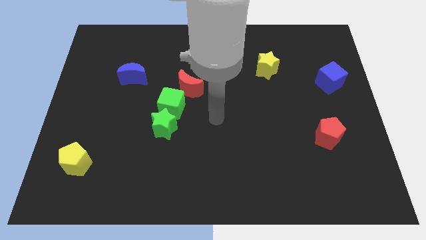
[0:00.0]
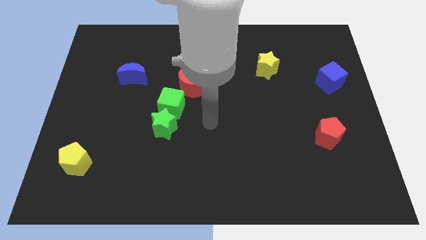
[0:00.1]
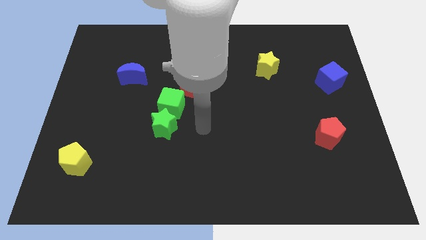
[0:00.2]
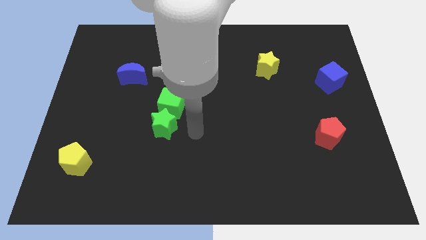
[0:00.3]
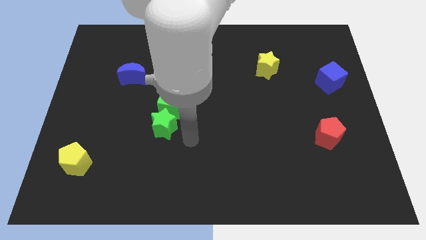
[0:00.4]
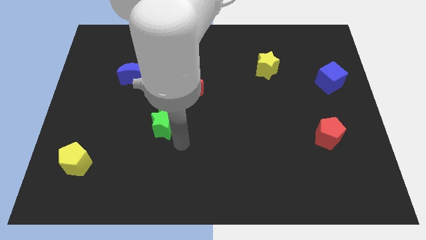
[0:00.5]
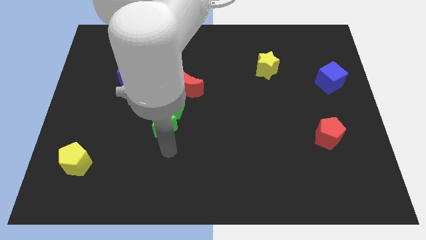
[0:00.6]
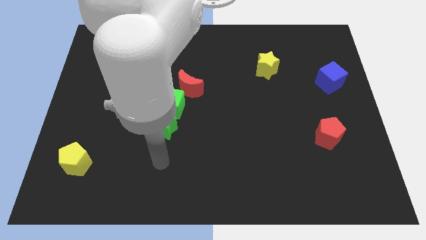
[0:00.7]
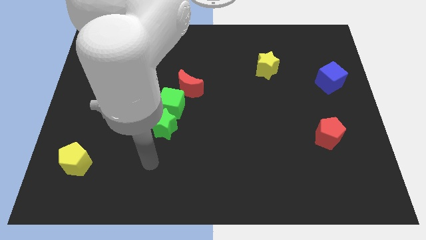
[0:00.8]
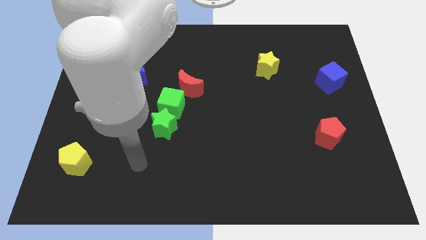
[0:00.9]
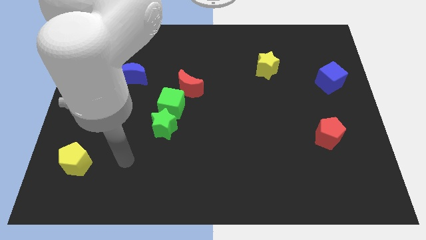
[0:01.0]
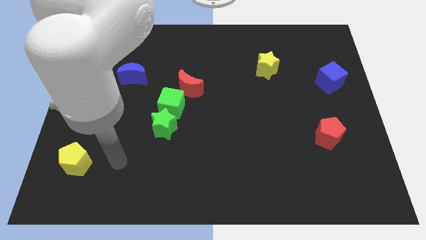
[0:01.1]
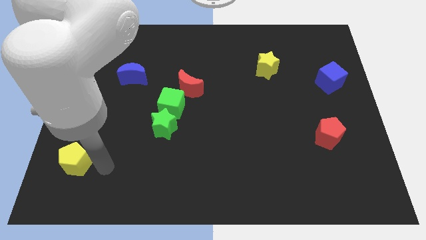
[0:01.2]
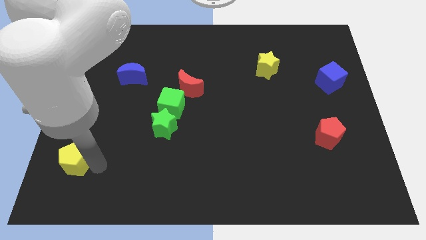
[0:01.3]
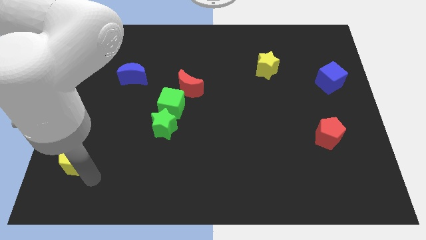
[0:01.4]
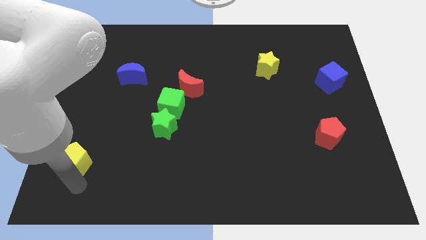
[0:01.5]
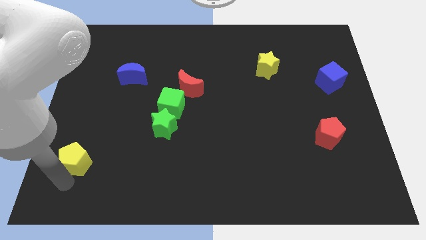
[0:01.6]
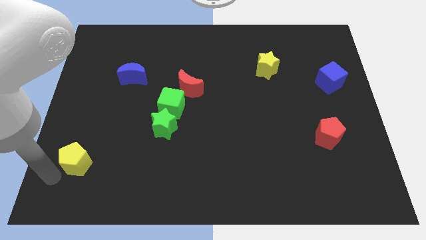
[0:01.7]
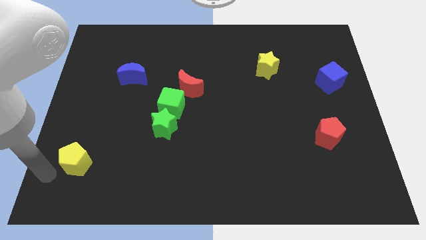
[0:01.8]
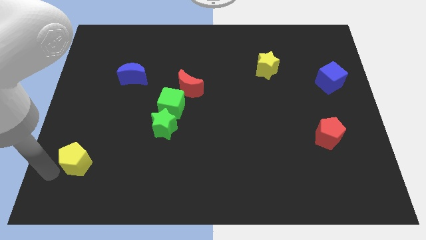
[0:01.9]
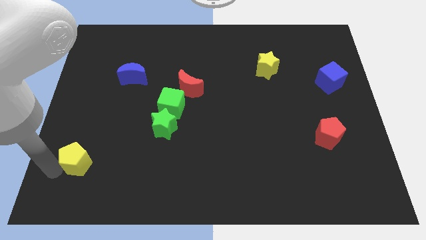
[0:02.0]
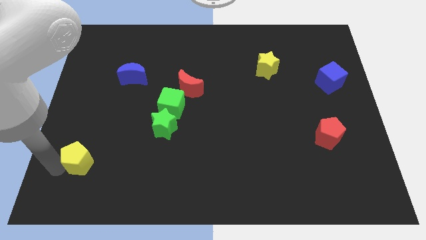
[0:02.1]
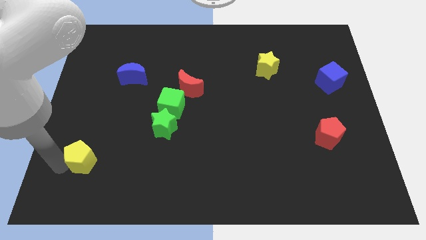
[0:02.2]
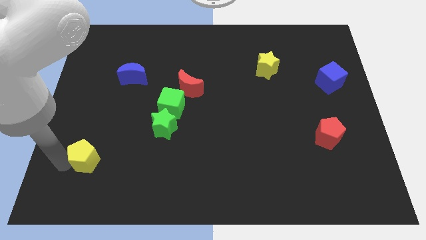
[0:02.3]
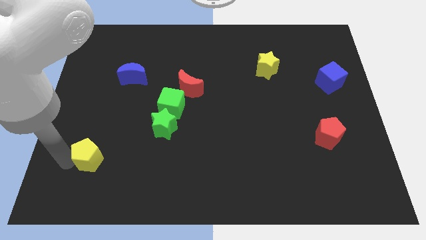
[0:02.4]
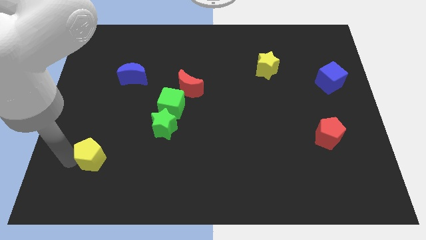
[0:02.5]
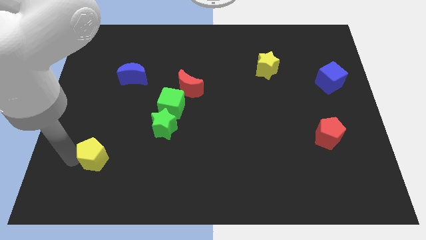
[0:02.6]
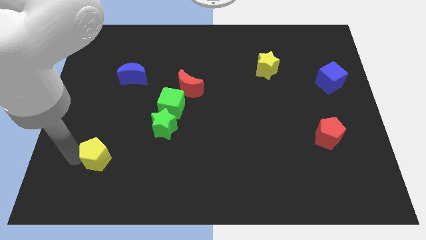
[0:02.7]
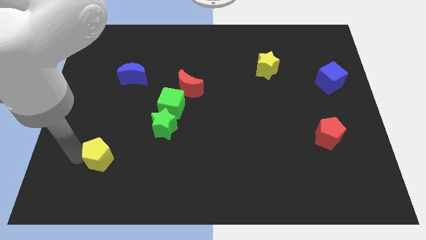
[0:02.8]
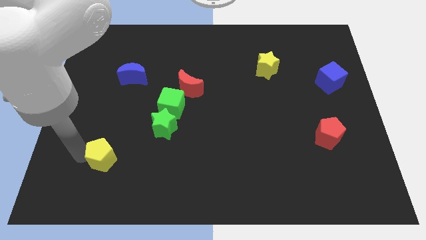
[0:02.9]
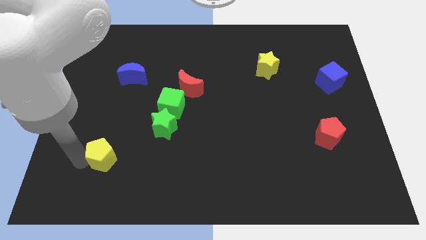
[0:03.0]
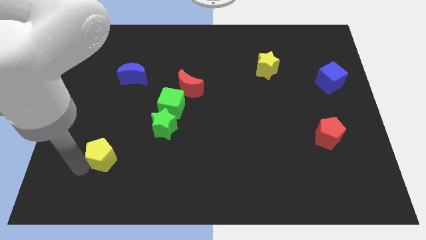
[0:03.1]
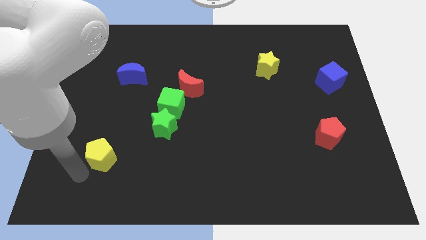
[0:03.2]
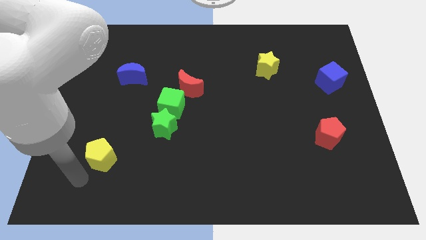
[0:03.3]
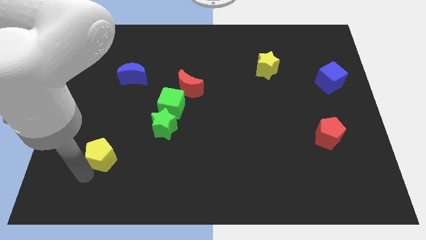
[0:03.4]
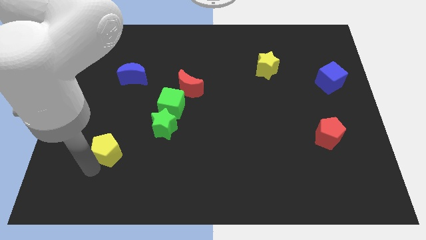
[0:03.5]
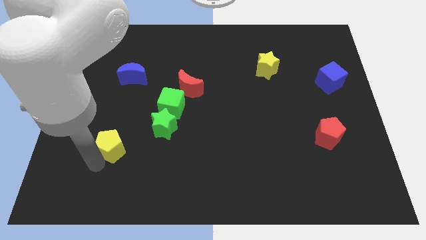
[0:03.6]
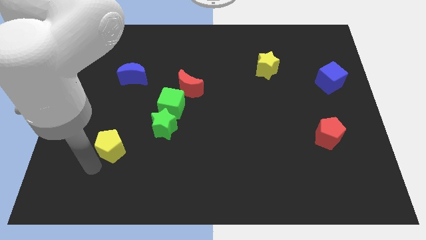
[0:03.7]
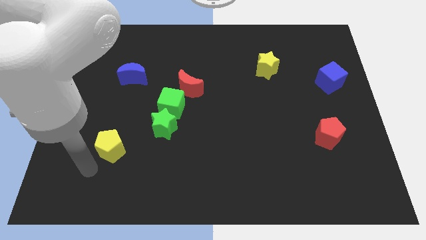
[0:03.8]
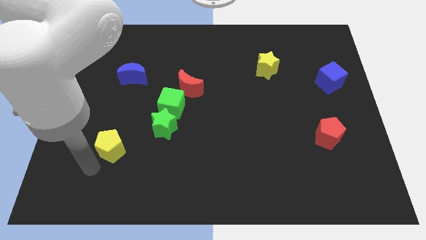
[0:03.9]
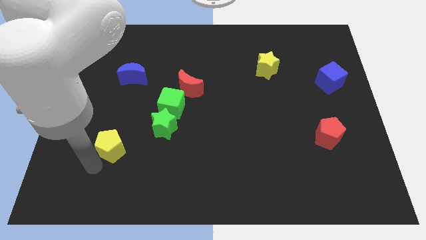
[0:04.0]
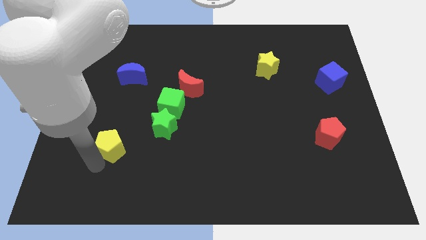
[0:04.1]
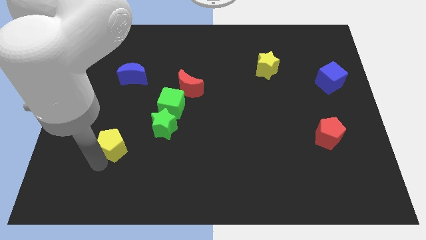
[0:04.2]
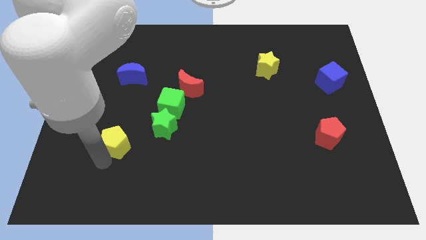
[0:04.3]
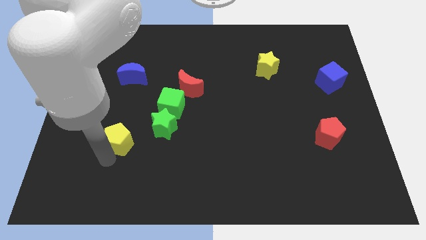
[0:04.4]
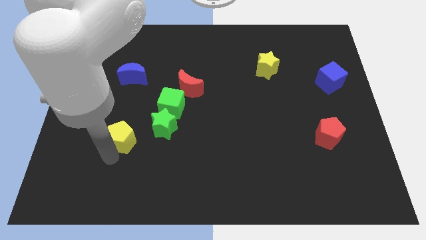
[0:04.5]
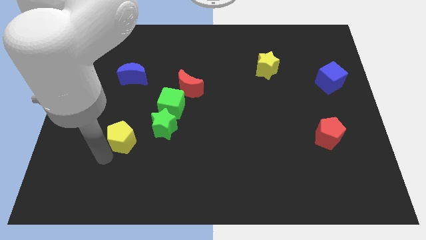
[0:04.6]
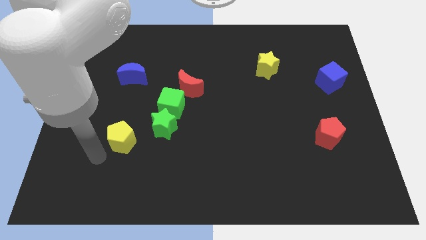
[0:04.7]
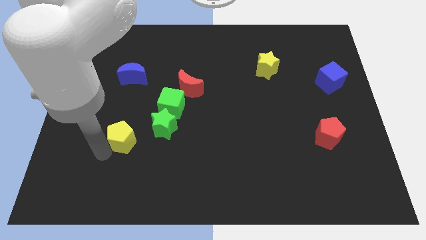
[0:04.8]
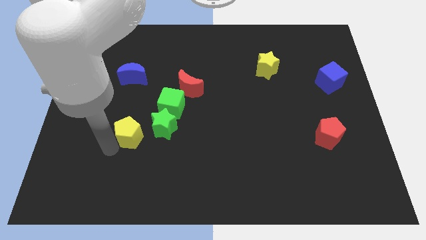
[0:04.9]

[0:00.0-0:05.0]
push the yellow pentagon to the bottom left of the green cube

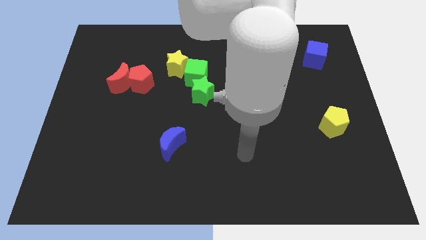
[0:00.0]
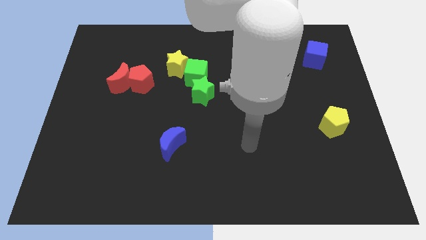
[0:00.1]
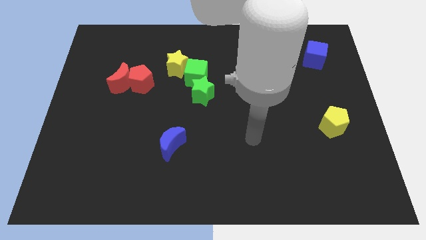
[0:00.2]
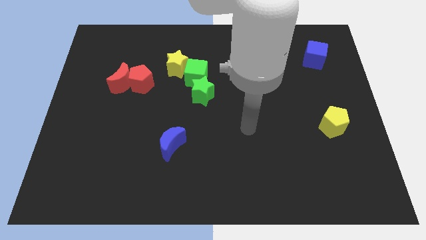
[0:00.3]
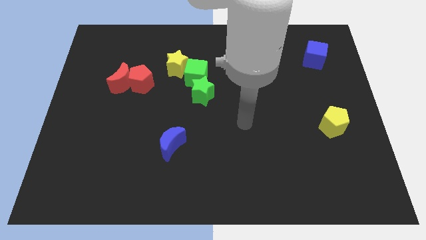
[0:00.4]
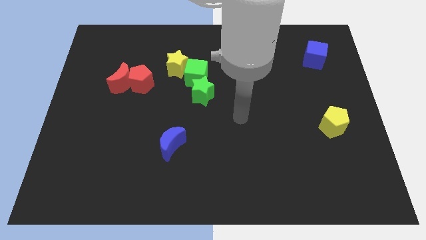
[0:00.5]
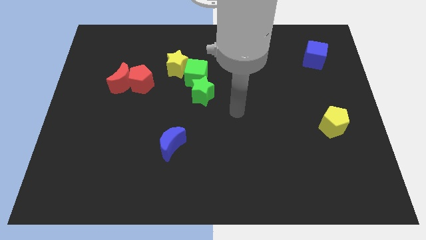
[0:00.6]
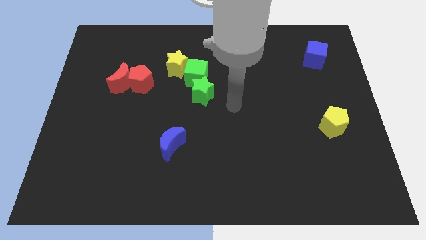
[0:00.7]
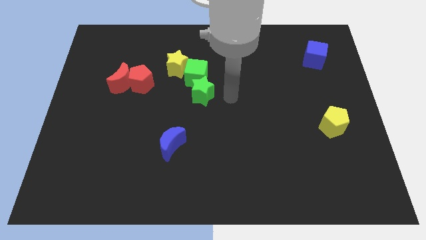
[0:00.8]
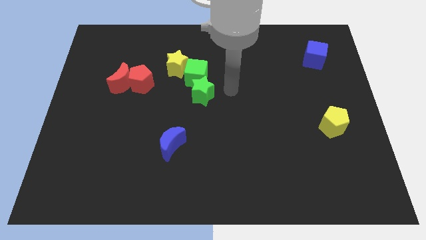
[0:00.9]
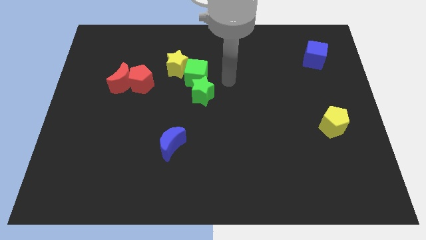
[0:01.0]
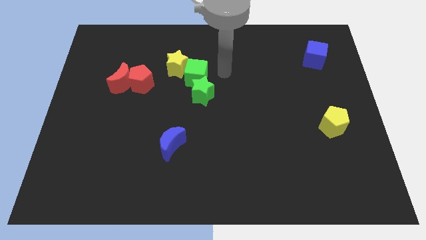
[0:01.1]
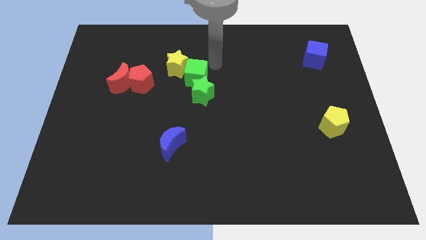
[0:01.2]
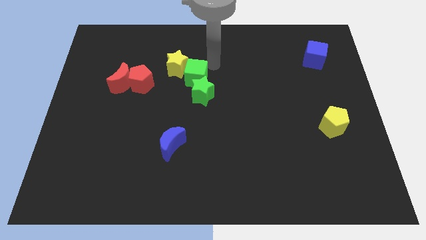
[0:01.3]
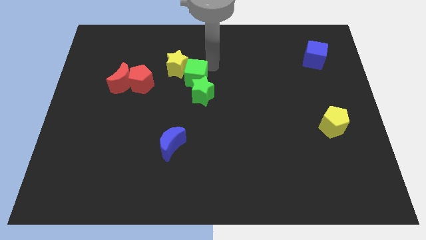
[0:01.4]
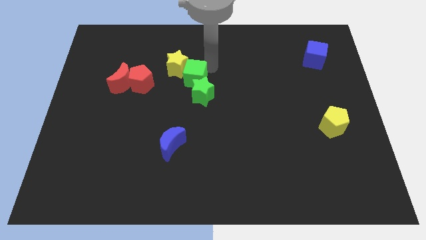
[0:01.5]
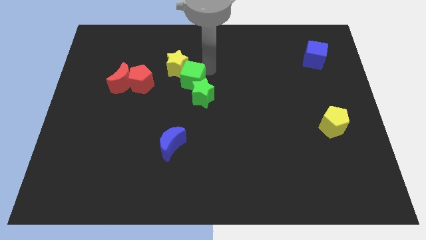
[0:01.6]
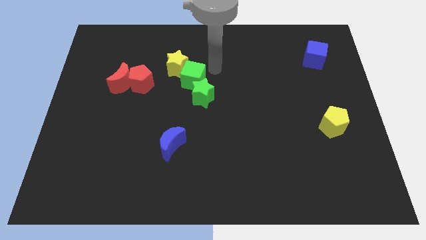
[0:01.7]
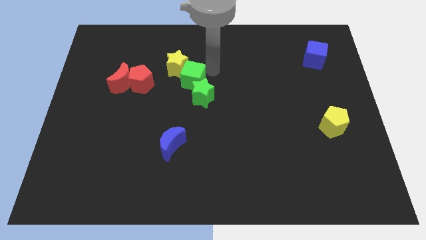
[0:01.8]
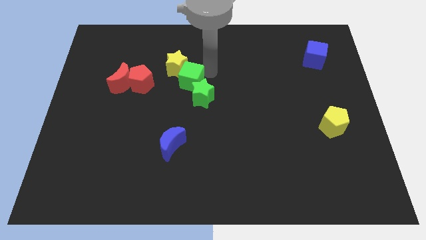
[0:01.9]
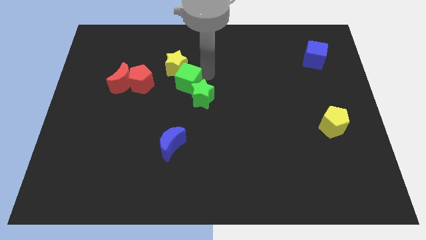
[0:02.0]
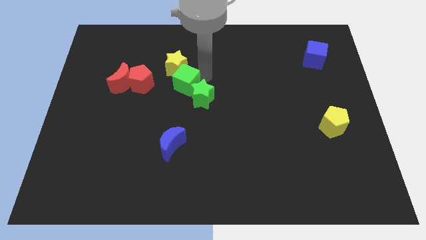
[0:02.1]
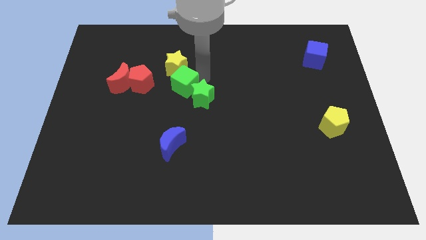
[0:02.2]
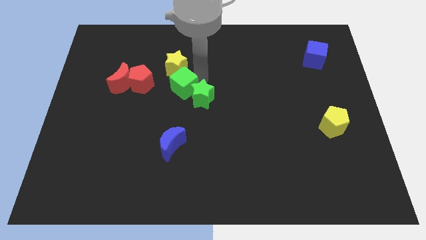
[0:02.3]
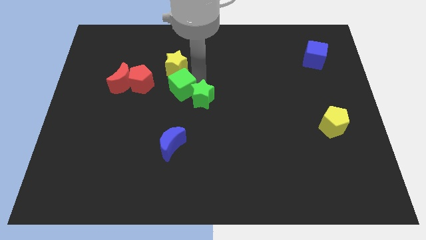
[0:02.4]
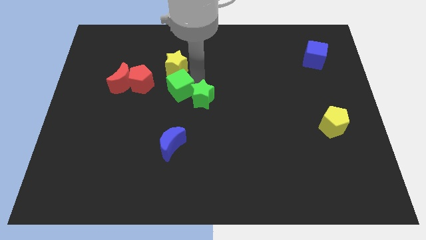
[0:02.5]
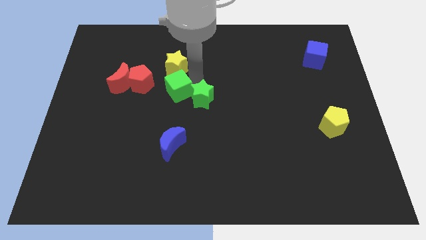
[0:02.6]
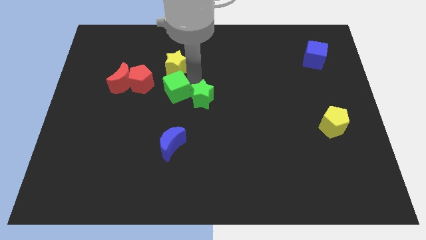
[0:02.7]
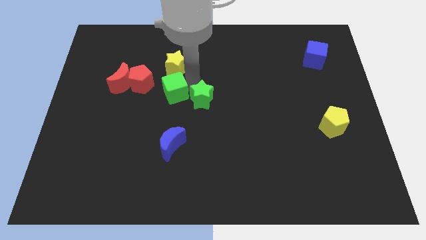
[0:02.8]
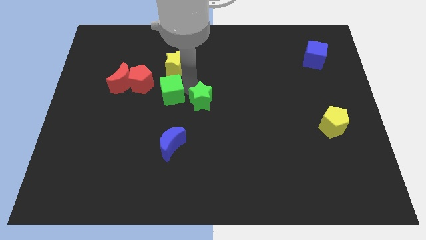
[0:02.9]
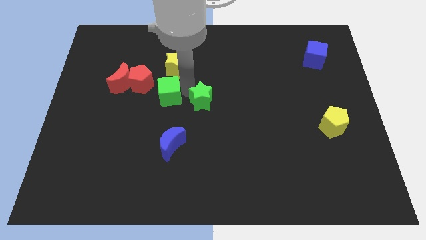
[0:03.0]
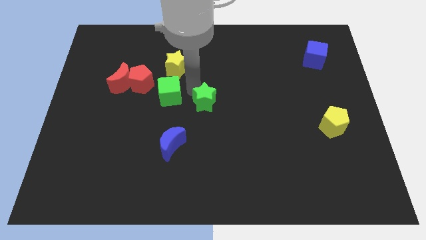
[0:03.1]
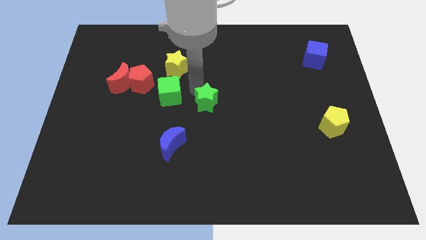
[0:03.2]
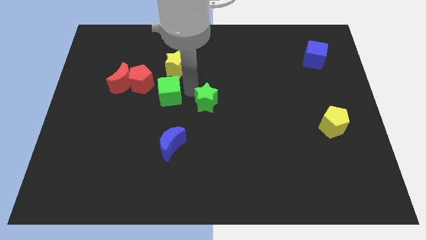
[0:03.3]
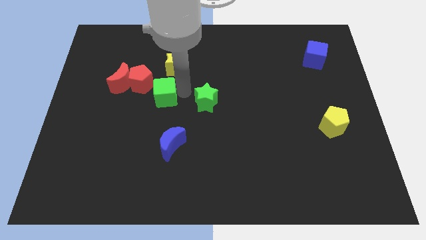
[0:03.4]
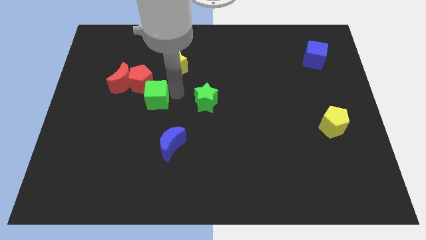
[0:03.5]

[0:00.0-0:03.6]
slide the green cube diagonally down and to the right of the red moon
